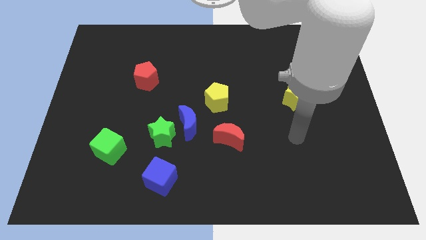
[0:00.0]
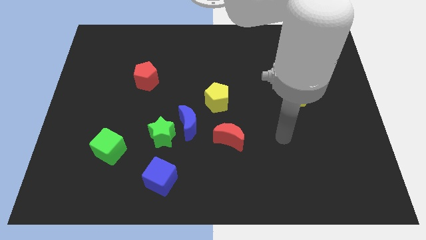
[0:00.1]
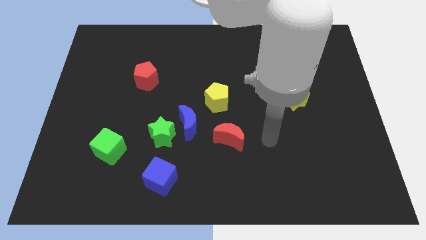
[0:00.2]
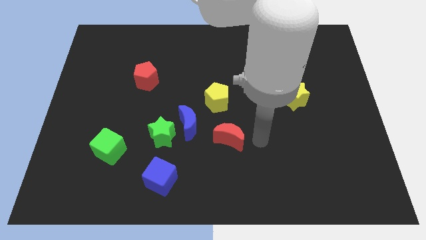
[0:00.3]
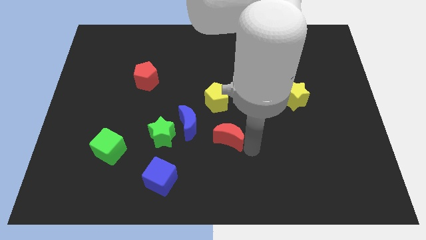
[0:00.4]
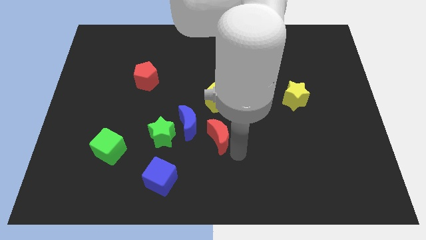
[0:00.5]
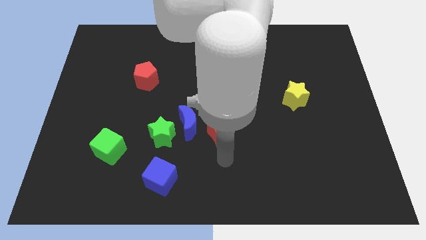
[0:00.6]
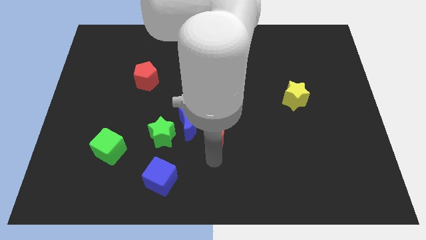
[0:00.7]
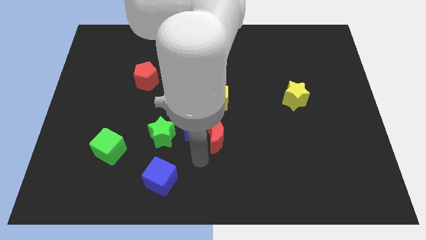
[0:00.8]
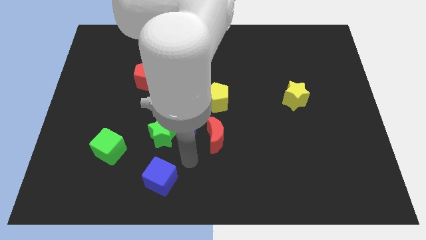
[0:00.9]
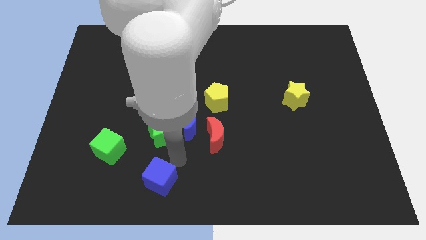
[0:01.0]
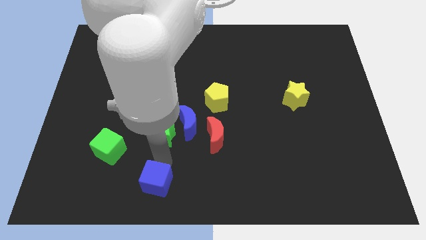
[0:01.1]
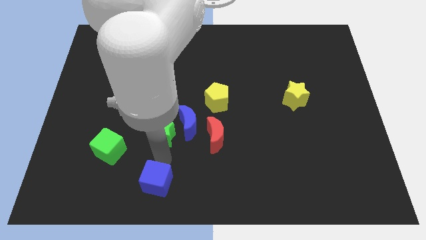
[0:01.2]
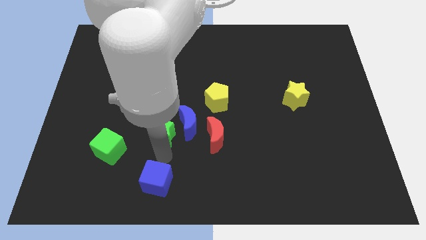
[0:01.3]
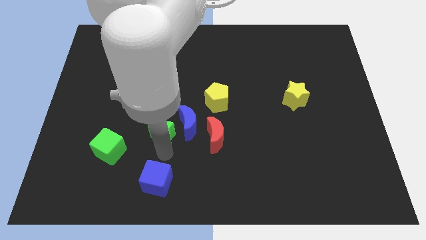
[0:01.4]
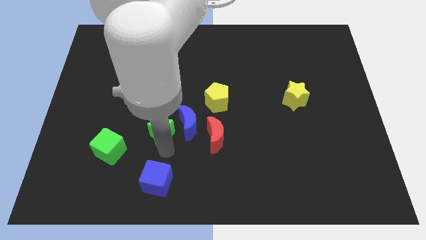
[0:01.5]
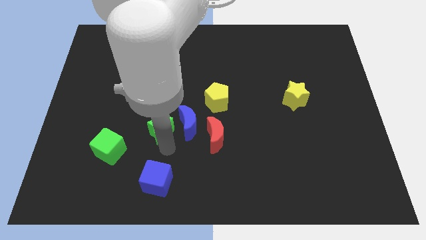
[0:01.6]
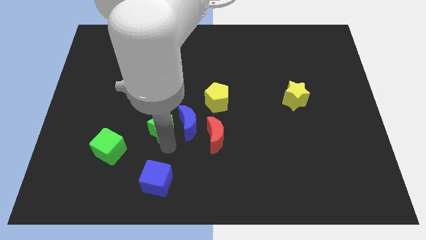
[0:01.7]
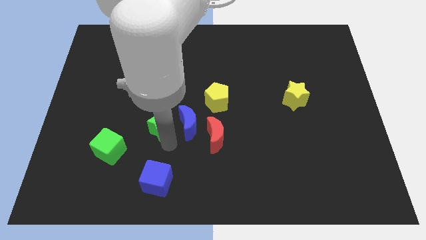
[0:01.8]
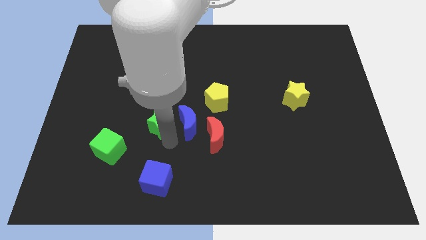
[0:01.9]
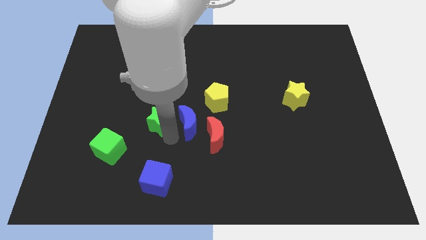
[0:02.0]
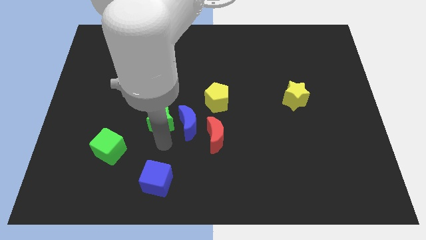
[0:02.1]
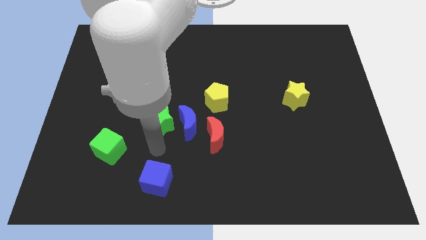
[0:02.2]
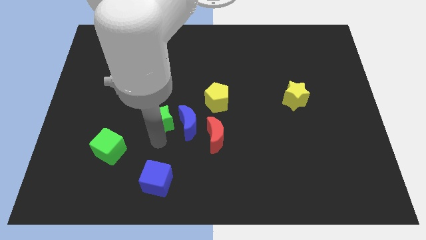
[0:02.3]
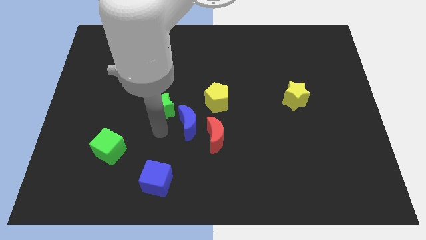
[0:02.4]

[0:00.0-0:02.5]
slide the green star up slightly

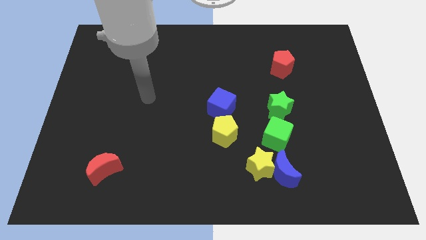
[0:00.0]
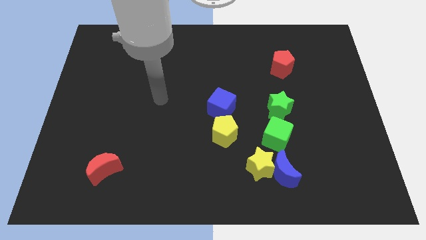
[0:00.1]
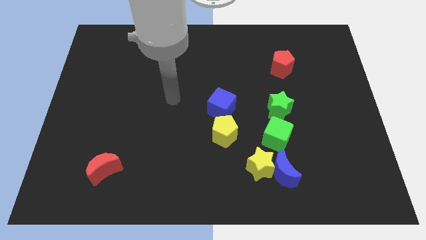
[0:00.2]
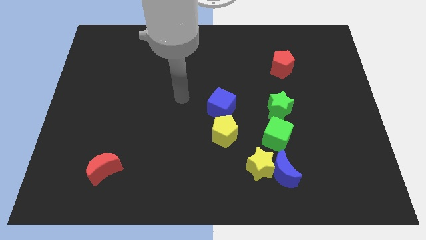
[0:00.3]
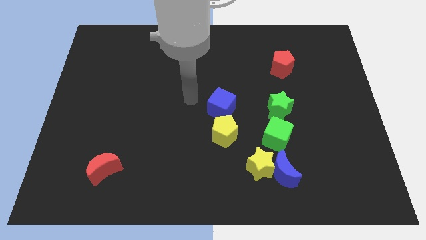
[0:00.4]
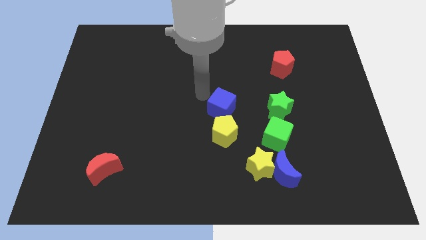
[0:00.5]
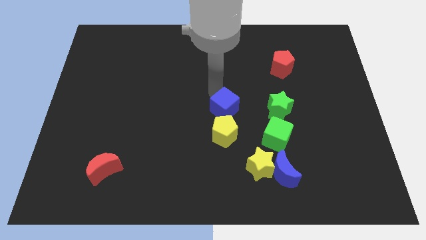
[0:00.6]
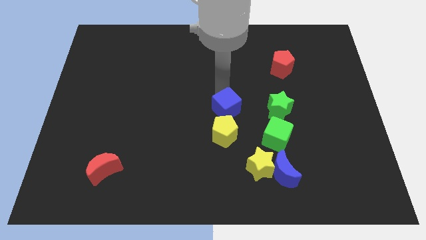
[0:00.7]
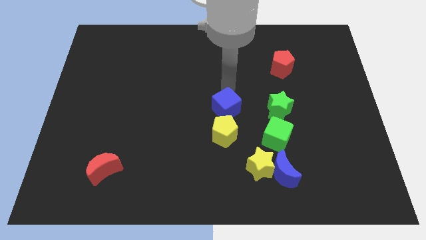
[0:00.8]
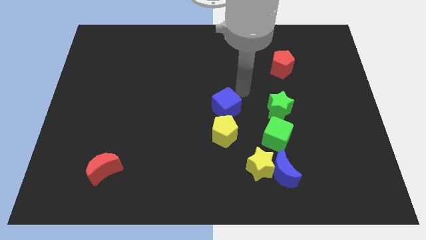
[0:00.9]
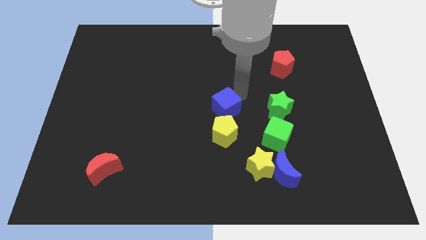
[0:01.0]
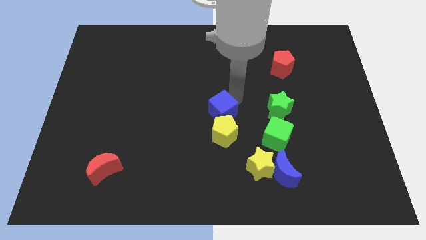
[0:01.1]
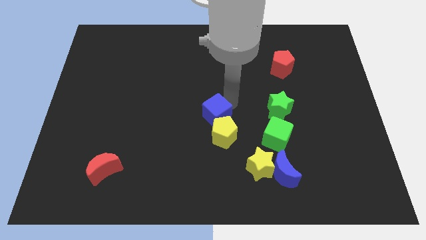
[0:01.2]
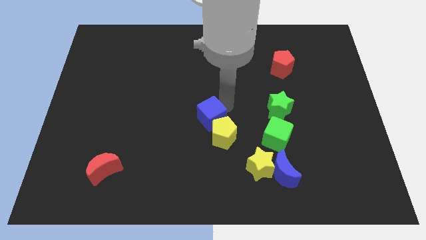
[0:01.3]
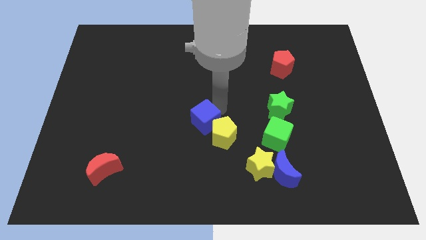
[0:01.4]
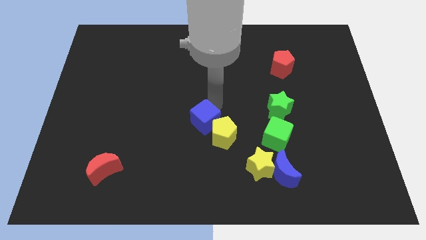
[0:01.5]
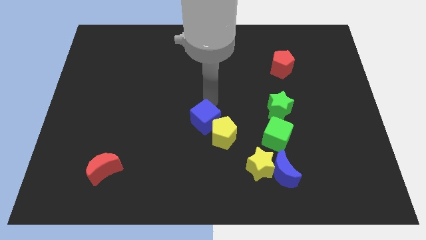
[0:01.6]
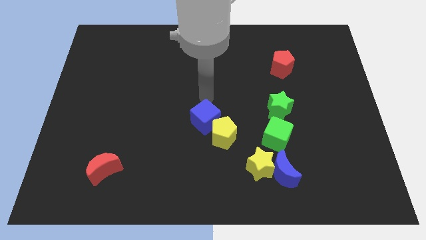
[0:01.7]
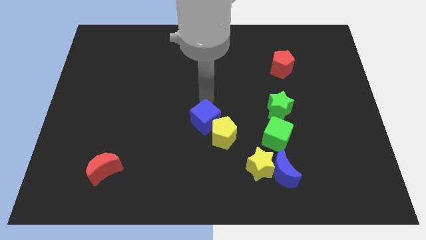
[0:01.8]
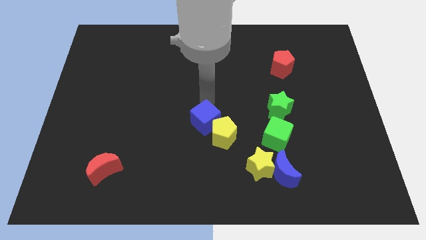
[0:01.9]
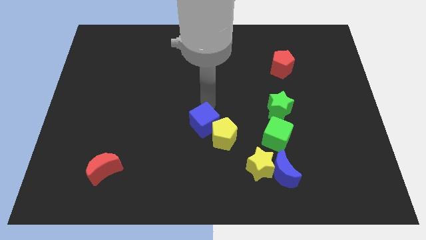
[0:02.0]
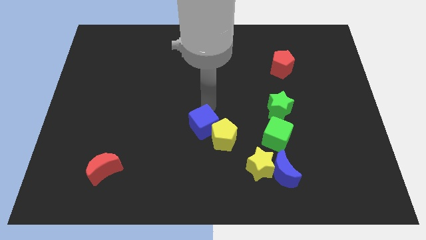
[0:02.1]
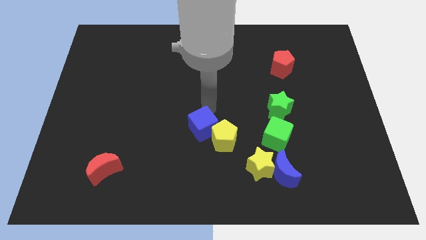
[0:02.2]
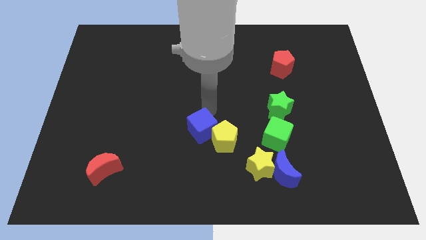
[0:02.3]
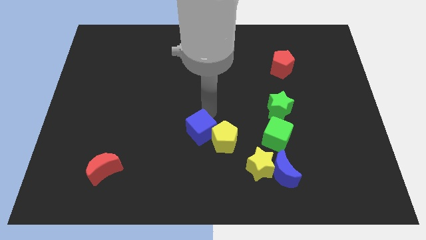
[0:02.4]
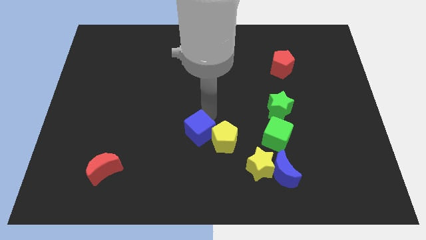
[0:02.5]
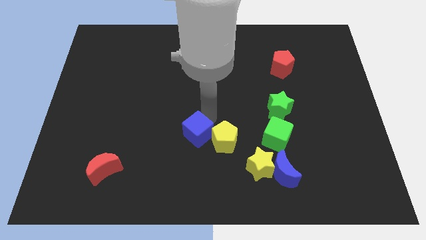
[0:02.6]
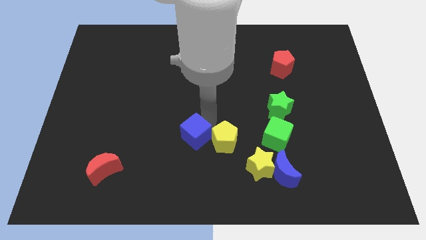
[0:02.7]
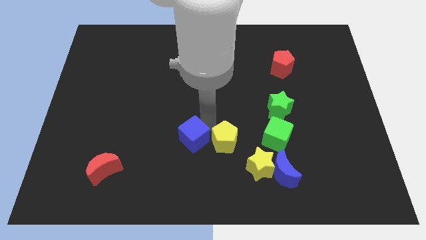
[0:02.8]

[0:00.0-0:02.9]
slightly slide the blue cube downwards

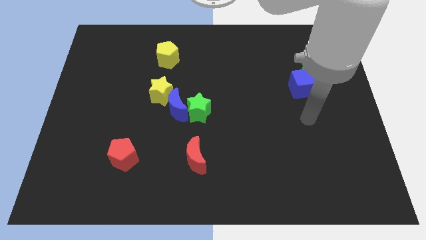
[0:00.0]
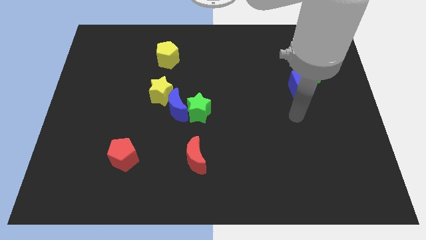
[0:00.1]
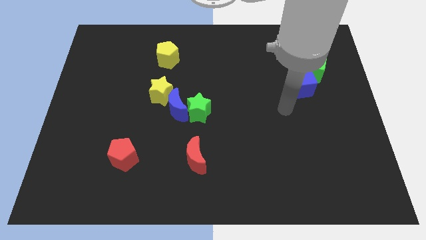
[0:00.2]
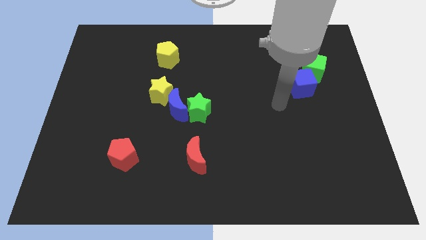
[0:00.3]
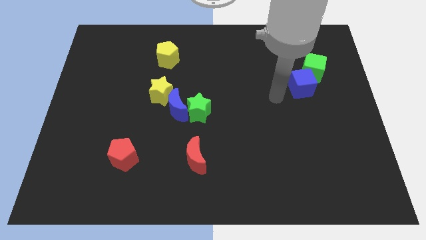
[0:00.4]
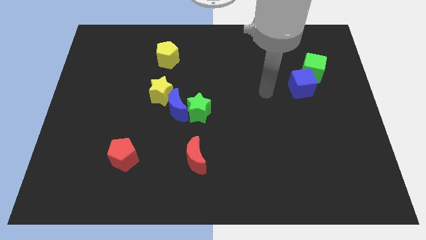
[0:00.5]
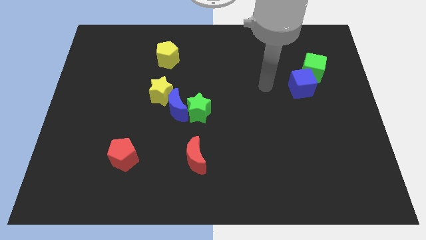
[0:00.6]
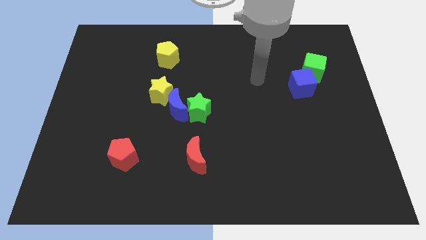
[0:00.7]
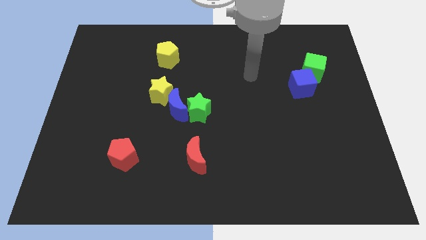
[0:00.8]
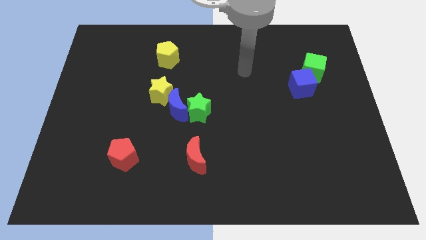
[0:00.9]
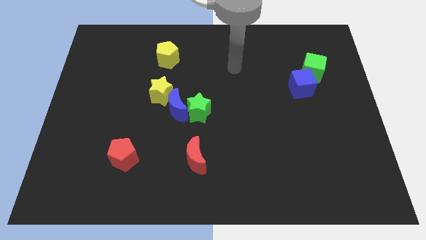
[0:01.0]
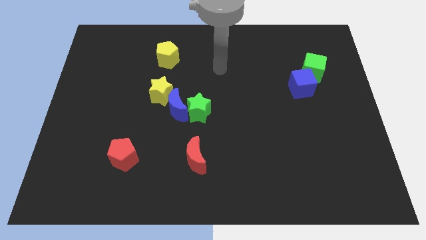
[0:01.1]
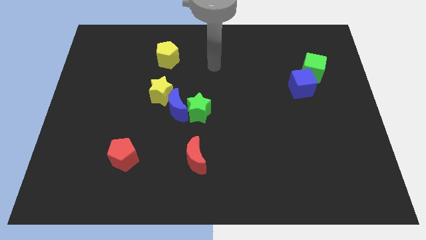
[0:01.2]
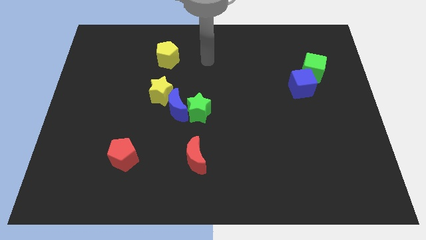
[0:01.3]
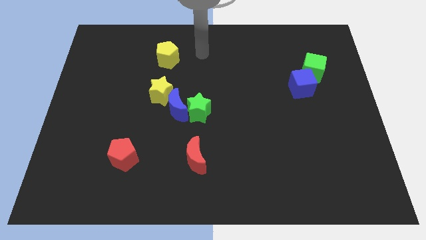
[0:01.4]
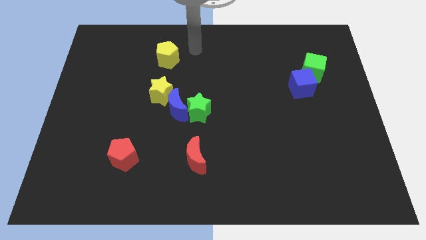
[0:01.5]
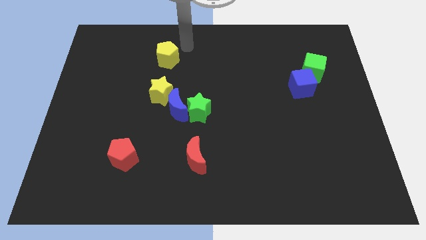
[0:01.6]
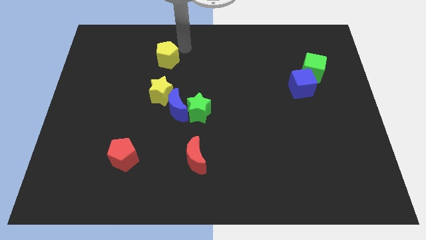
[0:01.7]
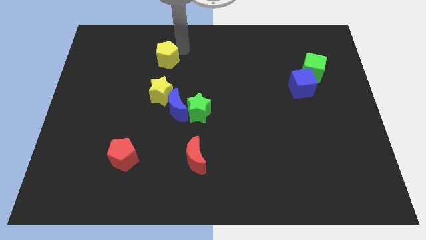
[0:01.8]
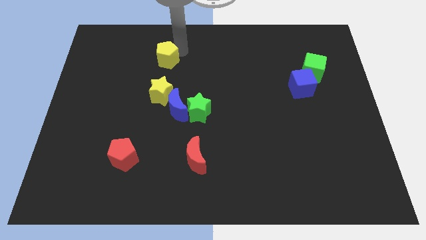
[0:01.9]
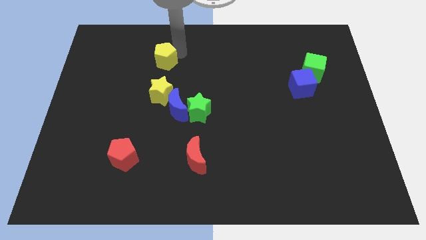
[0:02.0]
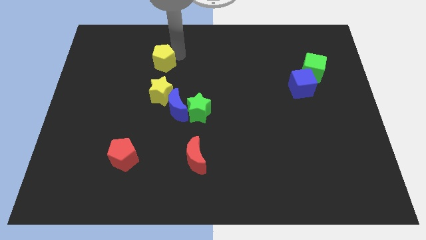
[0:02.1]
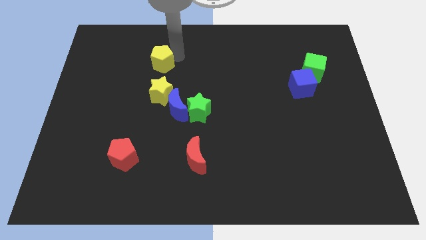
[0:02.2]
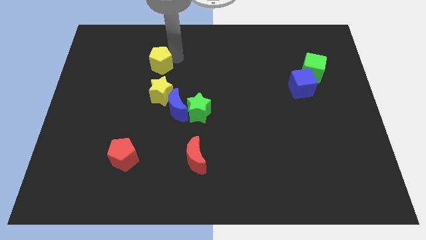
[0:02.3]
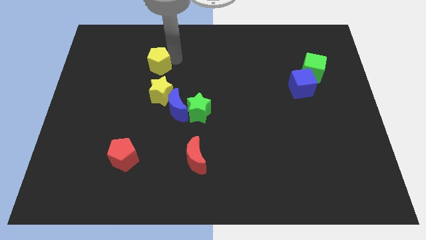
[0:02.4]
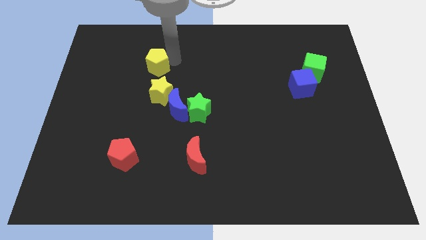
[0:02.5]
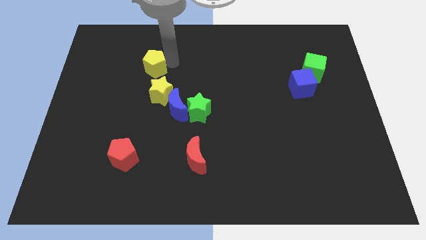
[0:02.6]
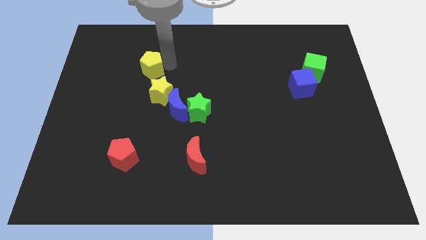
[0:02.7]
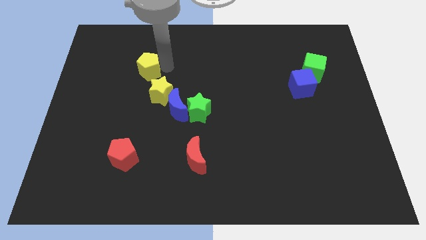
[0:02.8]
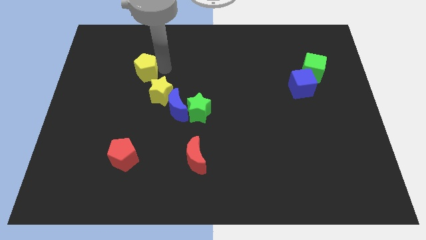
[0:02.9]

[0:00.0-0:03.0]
slide the yellow pentagon somewhat down and left
